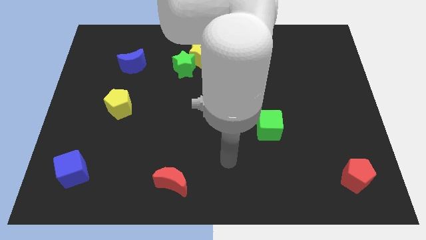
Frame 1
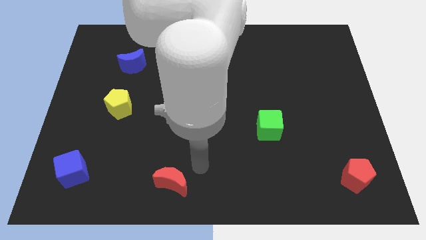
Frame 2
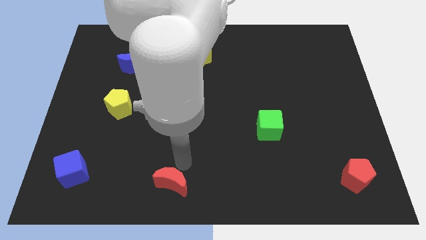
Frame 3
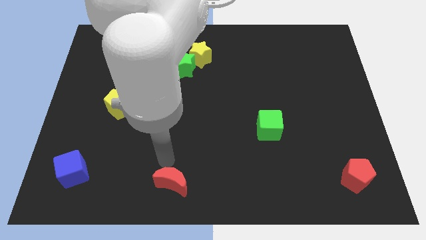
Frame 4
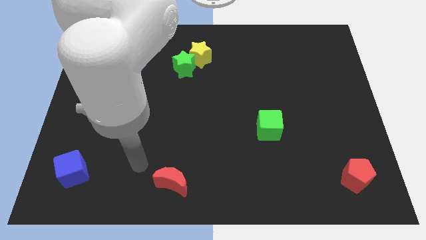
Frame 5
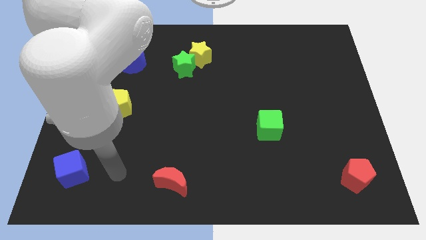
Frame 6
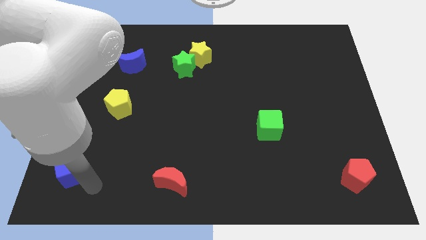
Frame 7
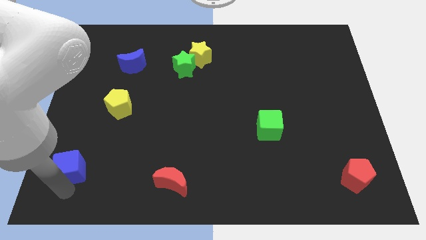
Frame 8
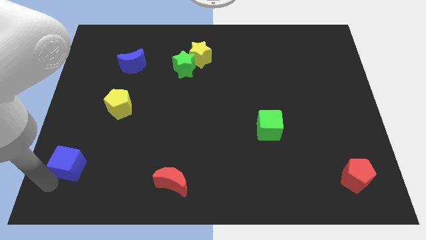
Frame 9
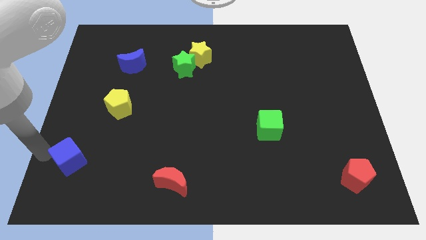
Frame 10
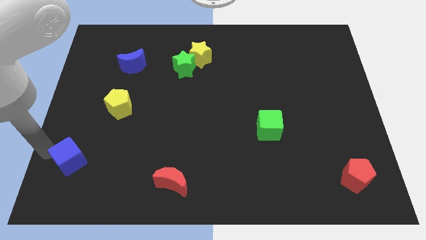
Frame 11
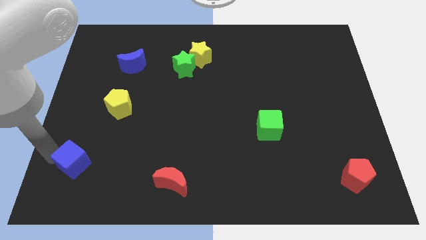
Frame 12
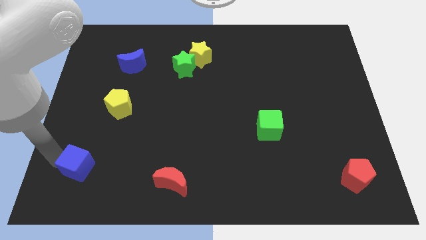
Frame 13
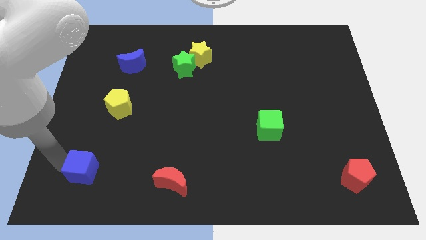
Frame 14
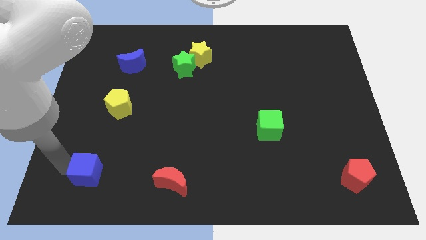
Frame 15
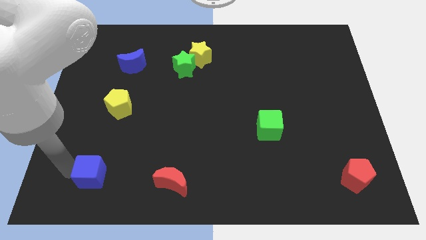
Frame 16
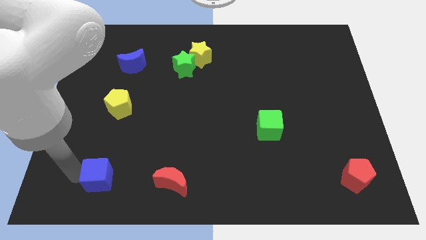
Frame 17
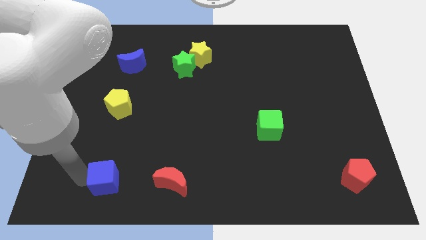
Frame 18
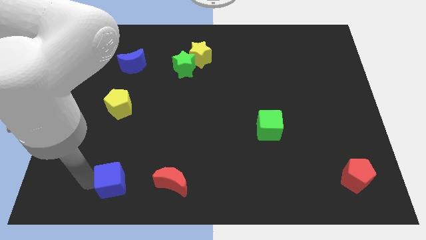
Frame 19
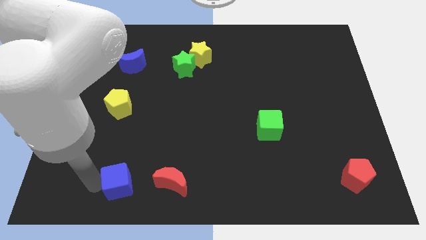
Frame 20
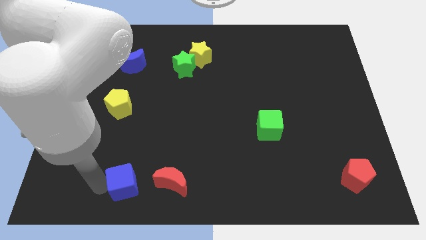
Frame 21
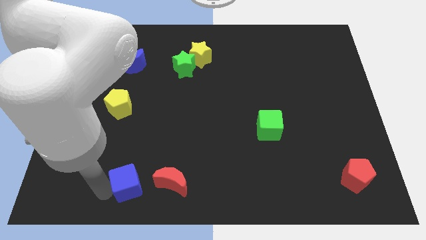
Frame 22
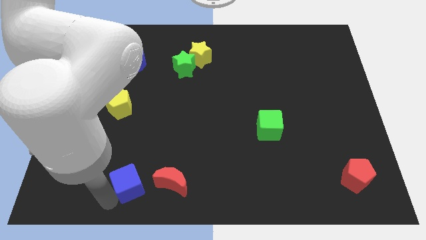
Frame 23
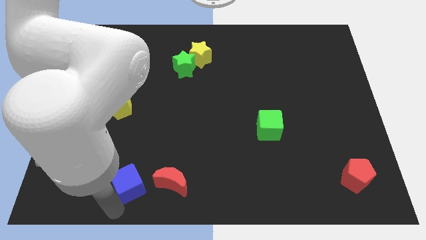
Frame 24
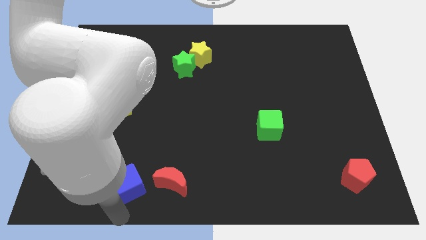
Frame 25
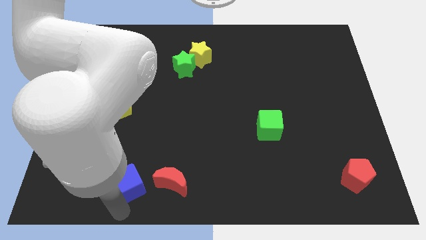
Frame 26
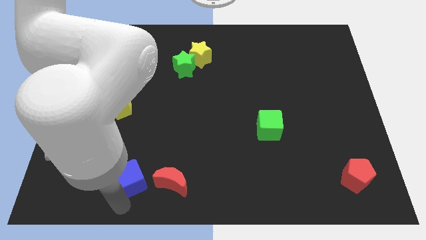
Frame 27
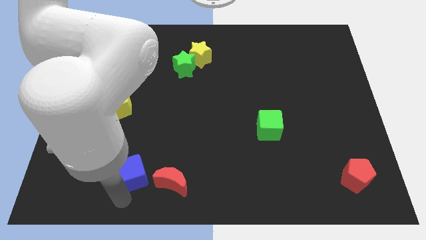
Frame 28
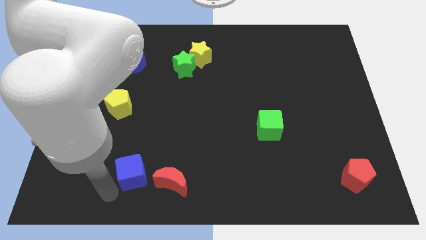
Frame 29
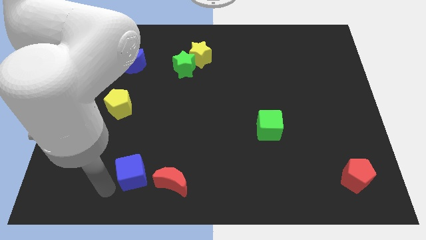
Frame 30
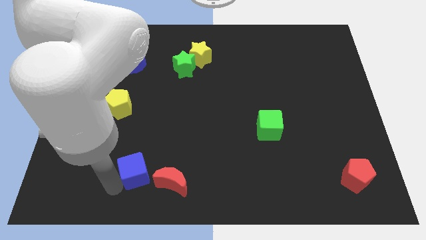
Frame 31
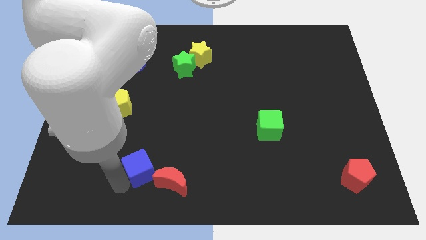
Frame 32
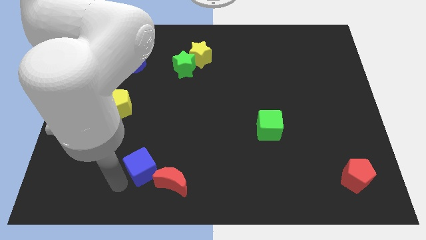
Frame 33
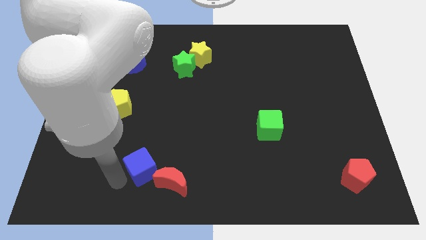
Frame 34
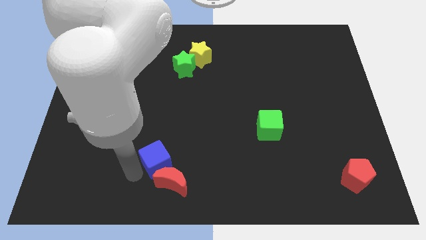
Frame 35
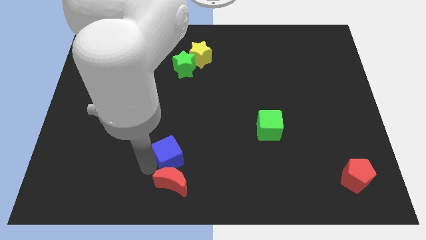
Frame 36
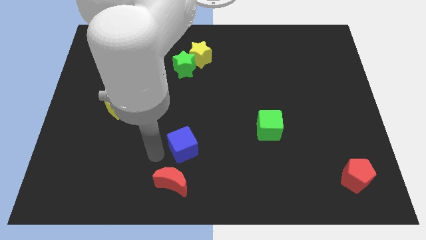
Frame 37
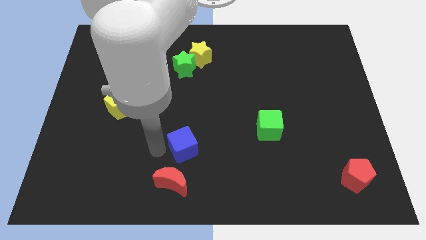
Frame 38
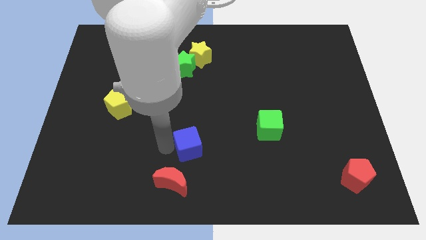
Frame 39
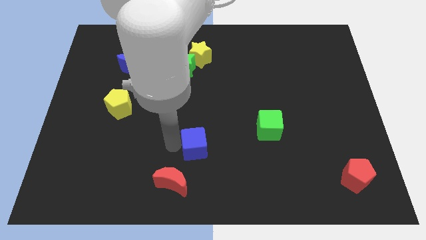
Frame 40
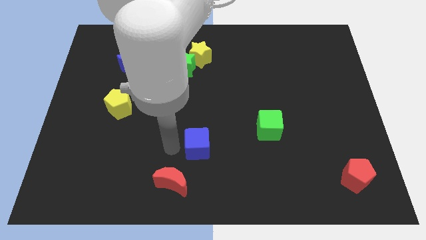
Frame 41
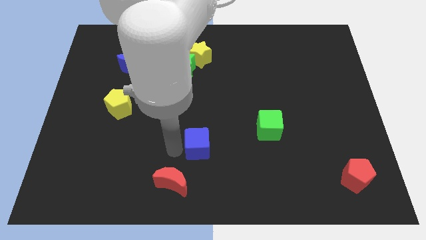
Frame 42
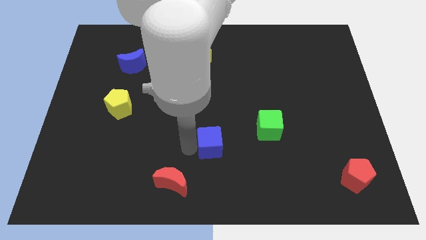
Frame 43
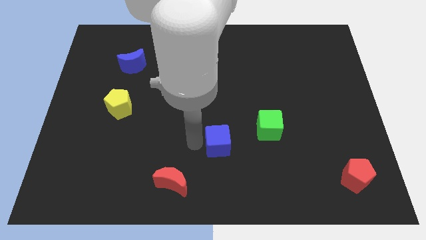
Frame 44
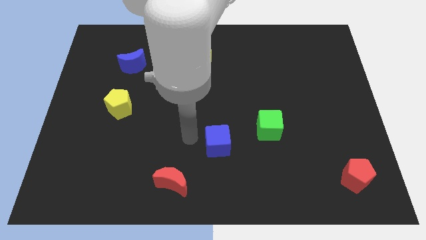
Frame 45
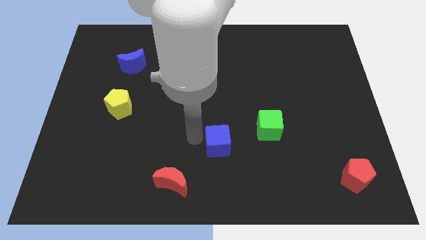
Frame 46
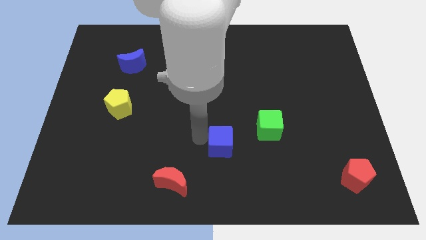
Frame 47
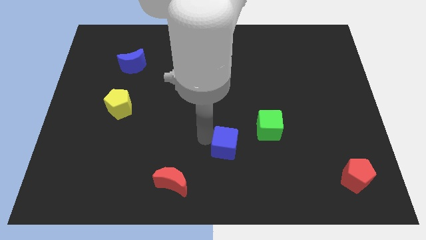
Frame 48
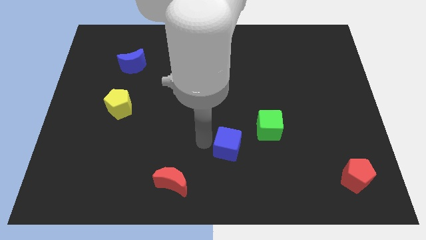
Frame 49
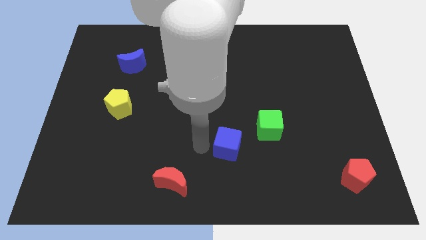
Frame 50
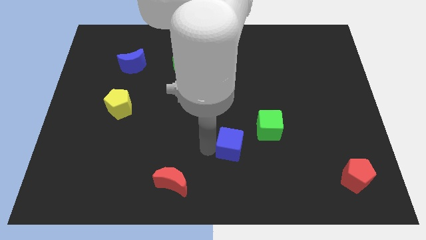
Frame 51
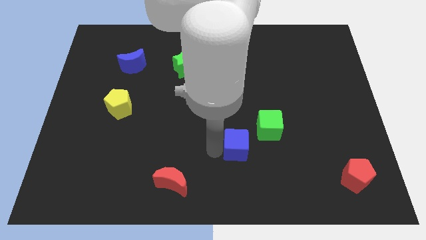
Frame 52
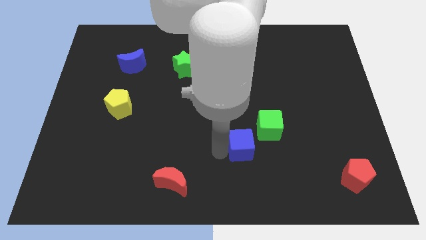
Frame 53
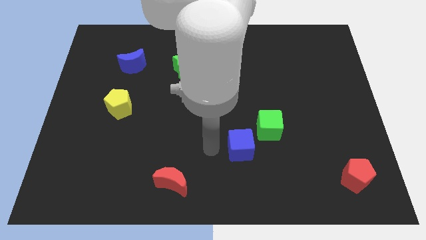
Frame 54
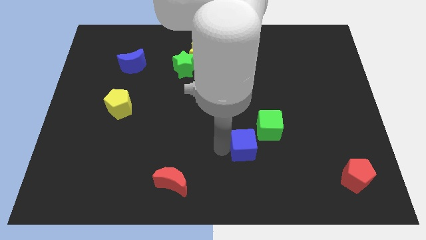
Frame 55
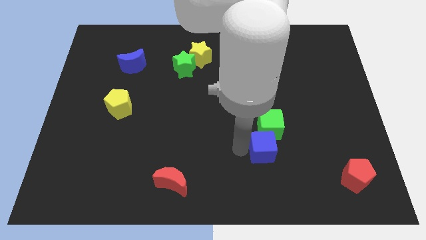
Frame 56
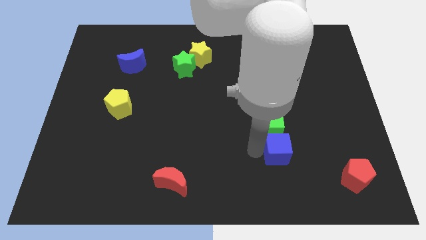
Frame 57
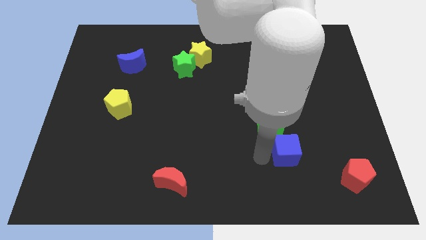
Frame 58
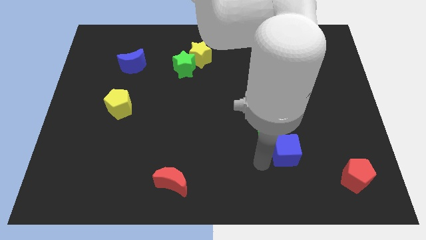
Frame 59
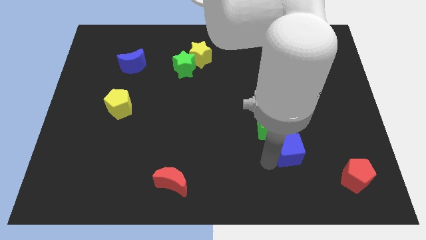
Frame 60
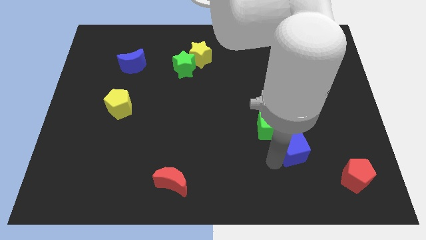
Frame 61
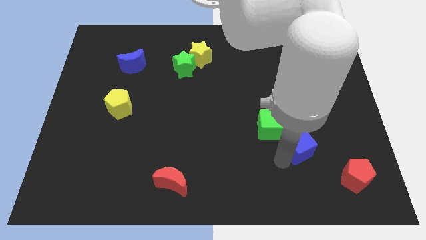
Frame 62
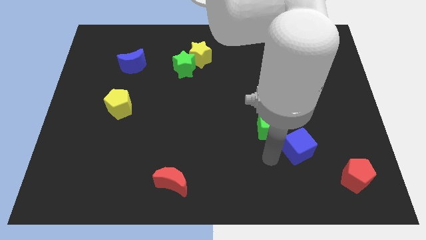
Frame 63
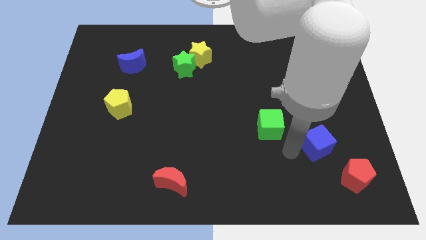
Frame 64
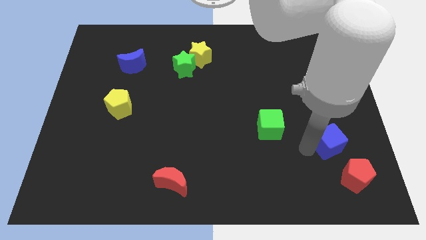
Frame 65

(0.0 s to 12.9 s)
push the blue cube to the top side of the red pentagon

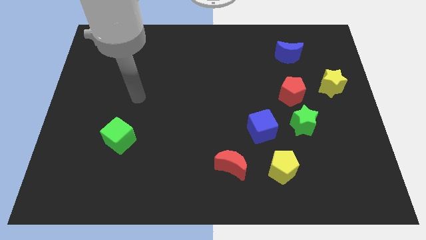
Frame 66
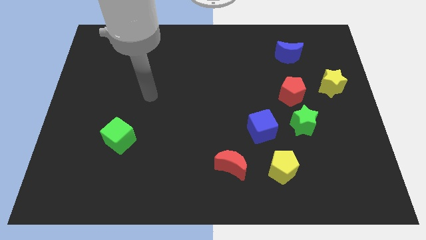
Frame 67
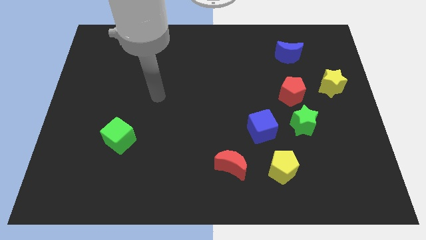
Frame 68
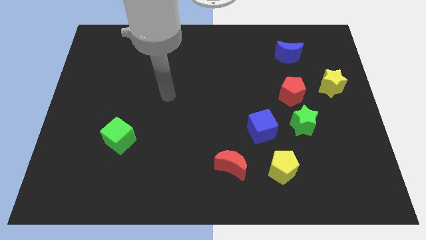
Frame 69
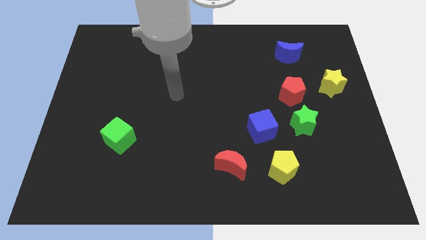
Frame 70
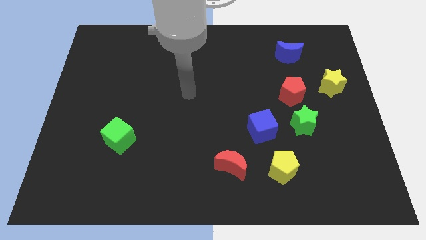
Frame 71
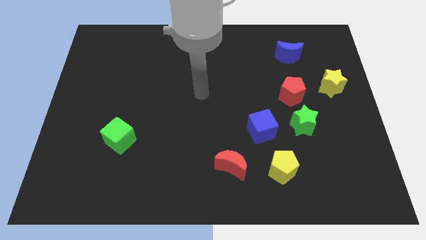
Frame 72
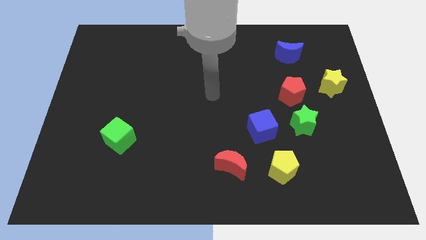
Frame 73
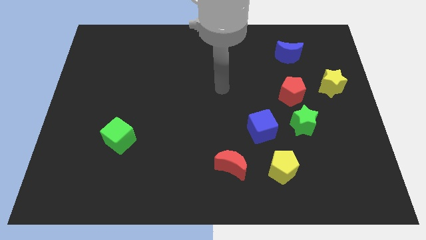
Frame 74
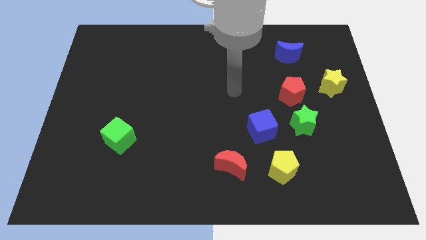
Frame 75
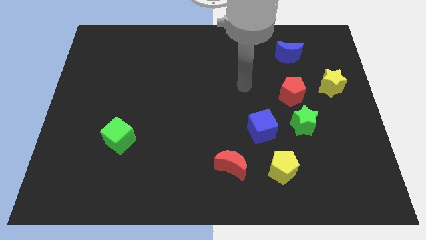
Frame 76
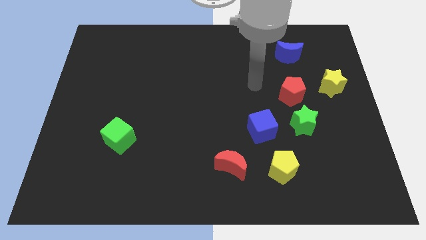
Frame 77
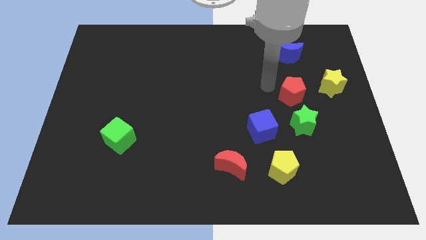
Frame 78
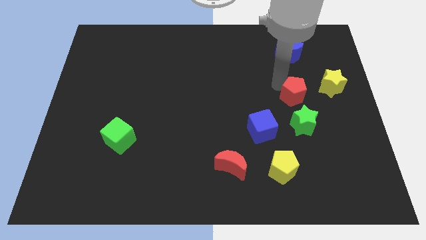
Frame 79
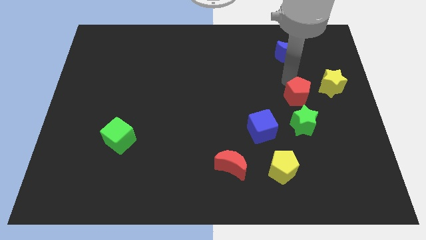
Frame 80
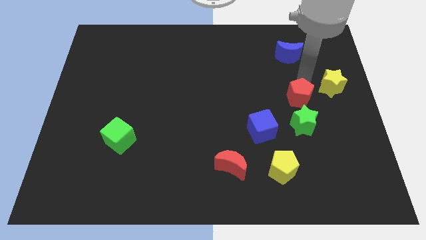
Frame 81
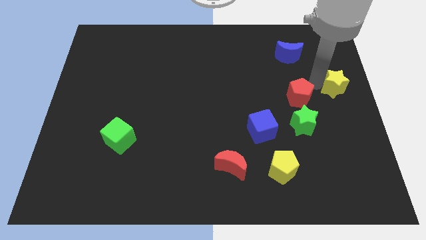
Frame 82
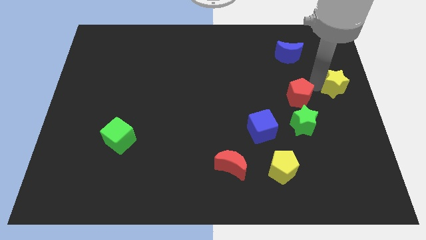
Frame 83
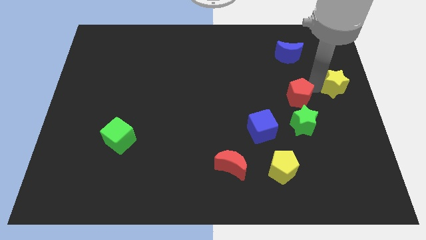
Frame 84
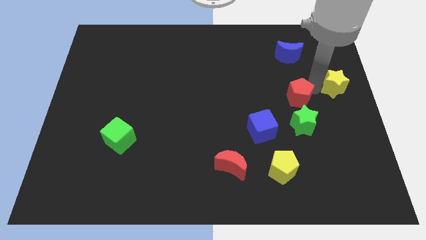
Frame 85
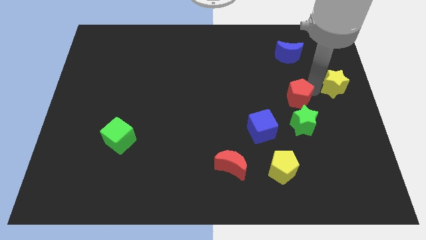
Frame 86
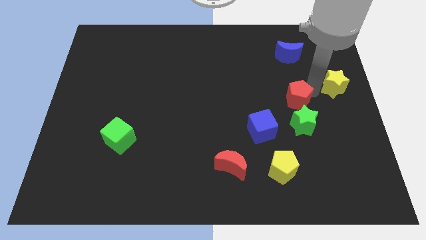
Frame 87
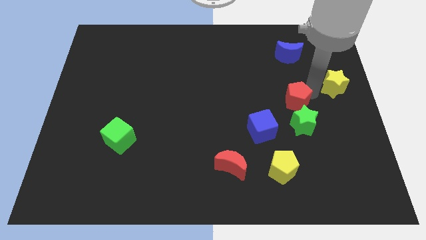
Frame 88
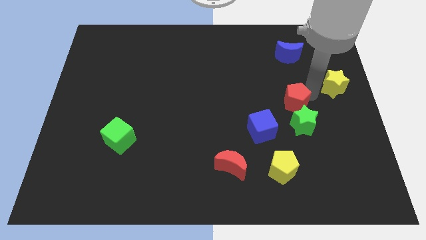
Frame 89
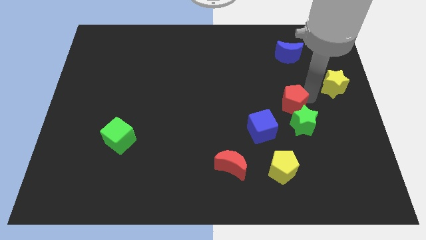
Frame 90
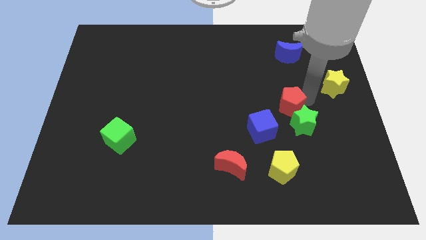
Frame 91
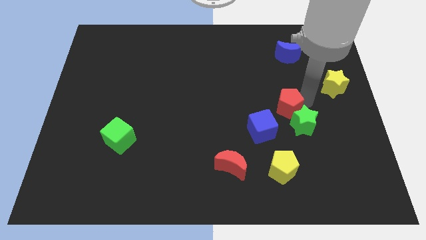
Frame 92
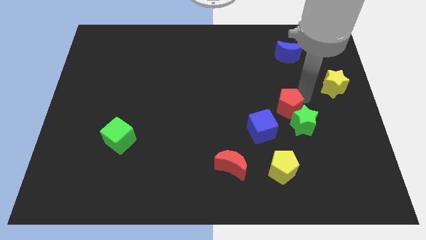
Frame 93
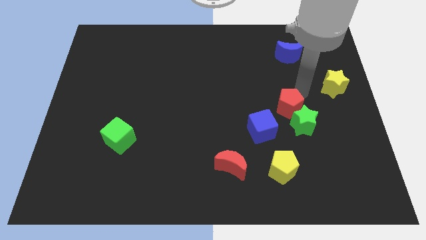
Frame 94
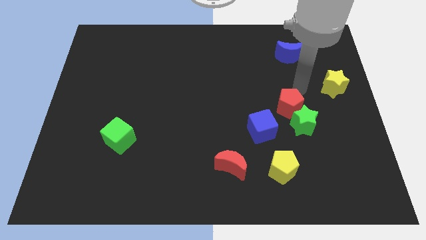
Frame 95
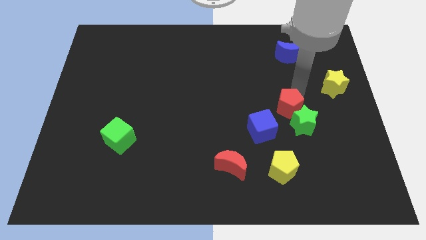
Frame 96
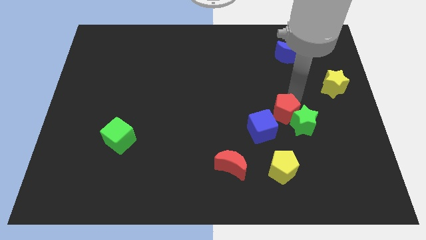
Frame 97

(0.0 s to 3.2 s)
push the red pentagon above the yellow pentagon
